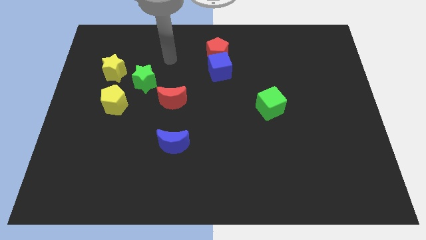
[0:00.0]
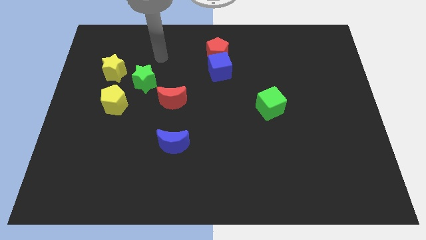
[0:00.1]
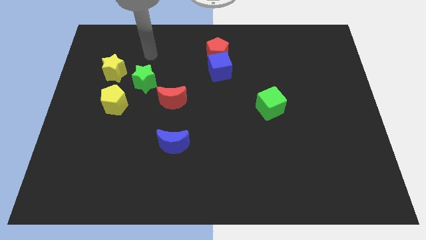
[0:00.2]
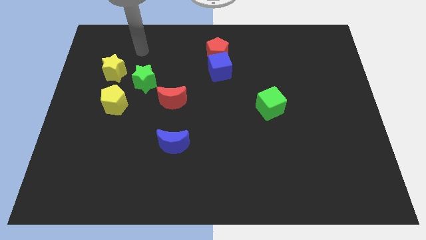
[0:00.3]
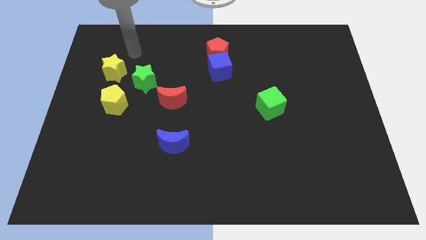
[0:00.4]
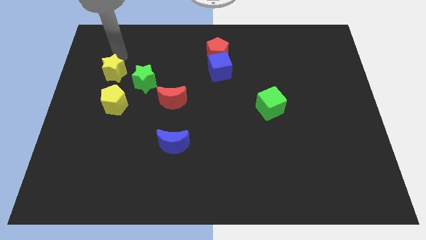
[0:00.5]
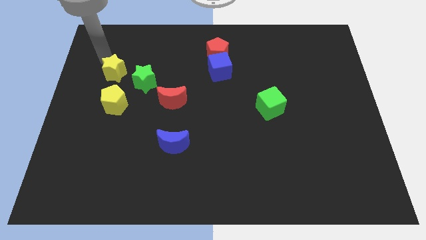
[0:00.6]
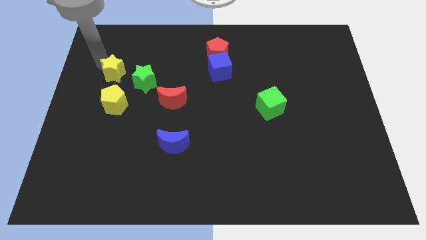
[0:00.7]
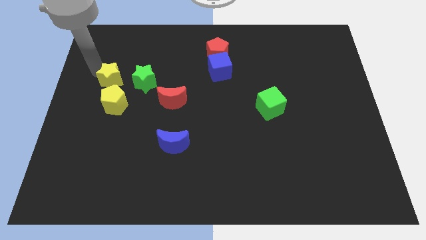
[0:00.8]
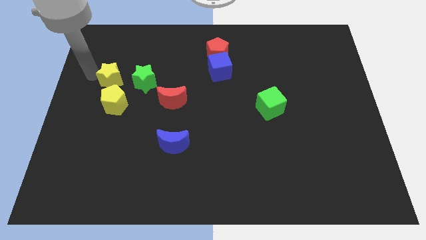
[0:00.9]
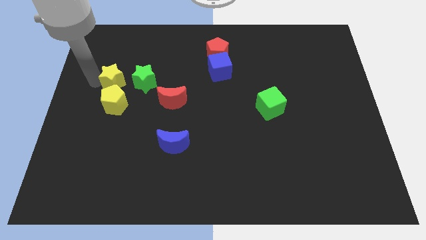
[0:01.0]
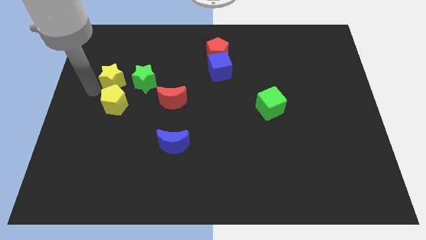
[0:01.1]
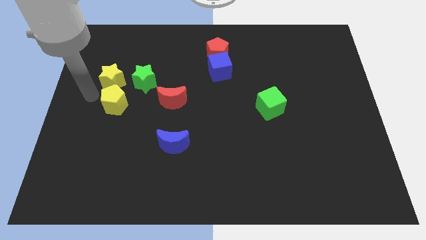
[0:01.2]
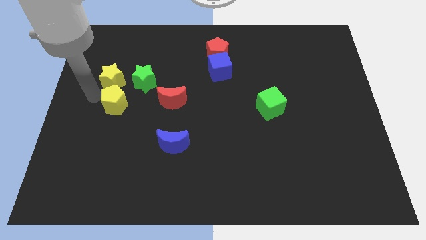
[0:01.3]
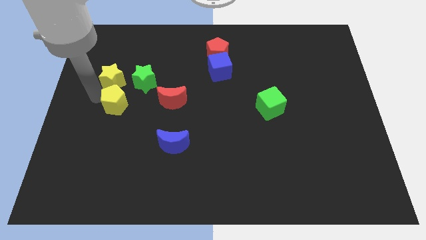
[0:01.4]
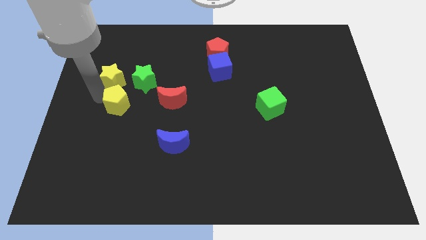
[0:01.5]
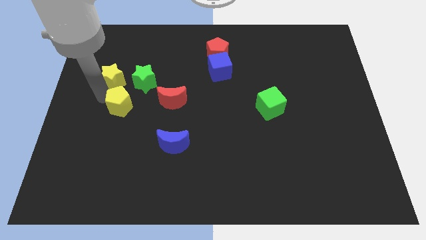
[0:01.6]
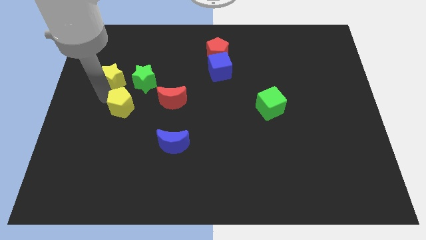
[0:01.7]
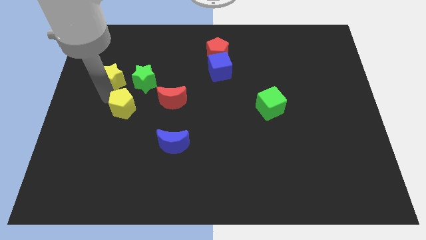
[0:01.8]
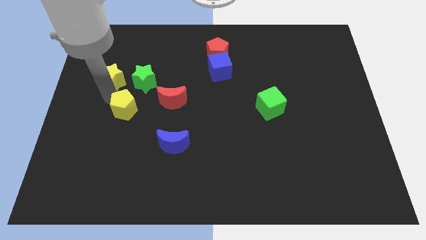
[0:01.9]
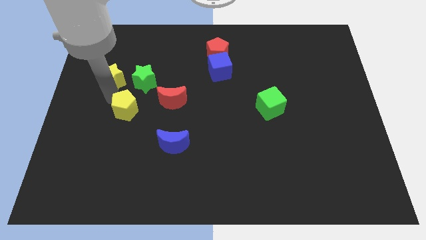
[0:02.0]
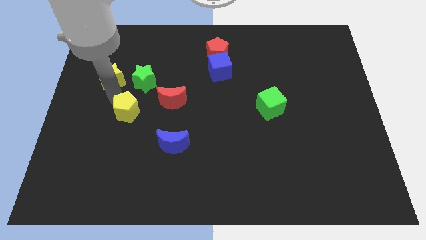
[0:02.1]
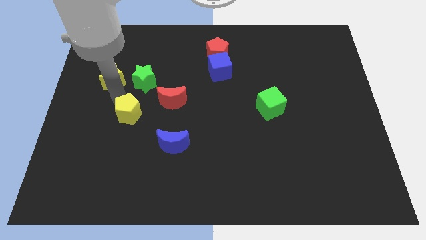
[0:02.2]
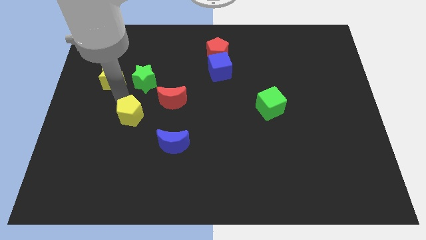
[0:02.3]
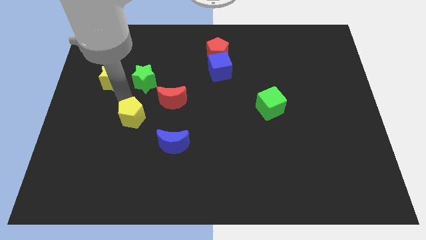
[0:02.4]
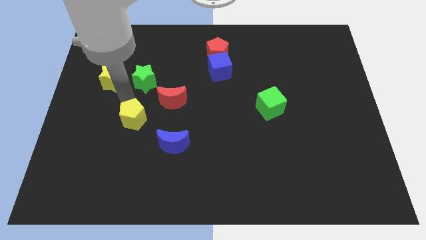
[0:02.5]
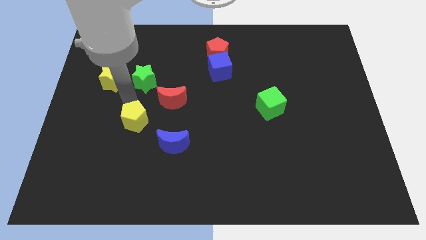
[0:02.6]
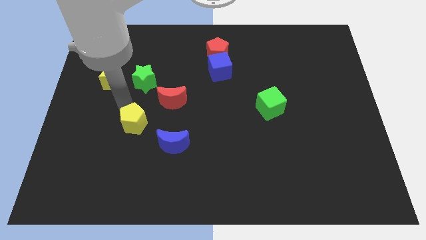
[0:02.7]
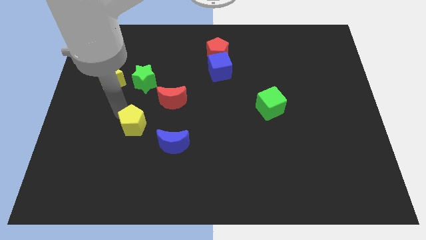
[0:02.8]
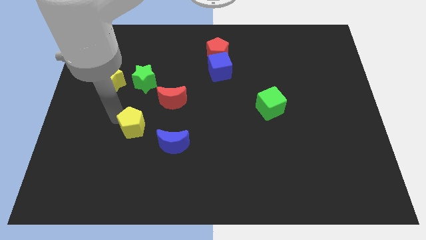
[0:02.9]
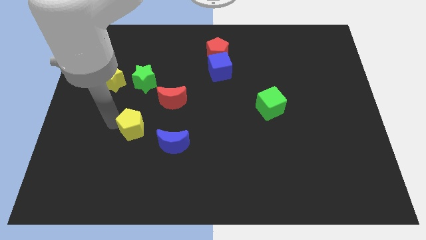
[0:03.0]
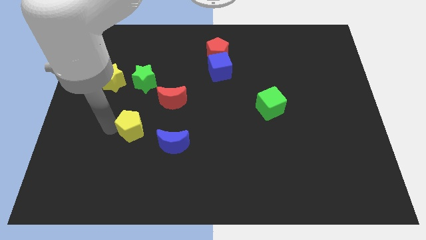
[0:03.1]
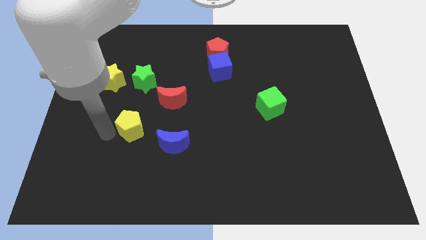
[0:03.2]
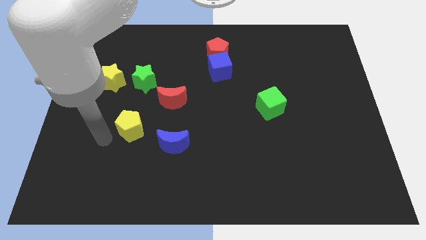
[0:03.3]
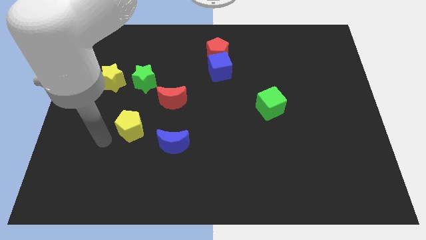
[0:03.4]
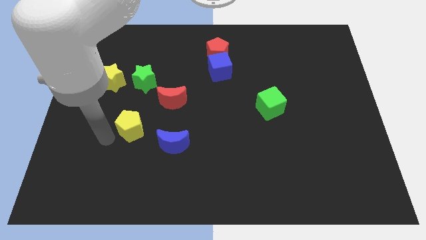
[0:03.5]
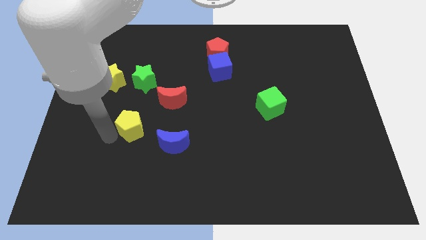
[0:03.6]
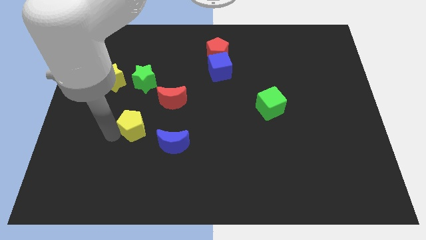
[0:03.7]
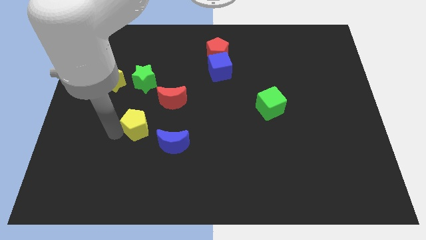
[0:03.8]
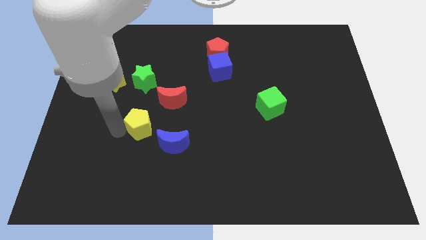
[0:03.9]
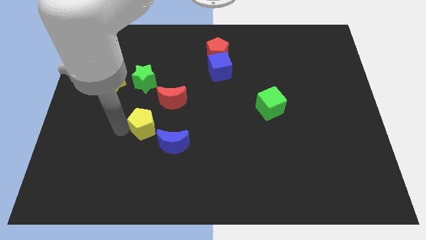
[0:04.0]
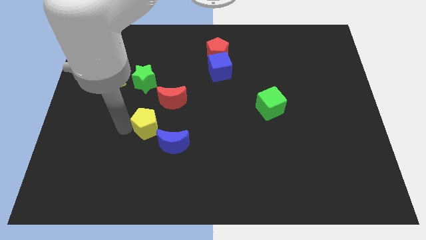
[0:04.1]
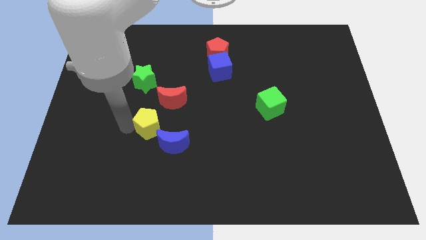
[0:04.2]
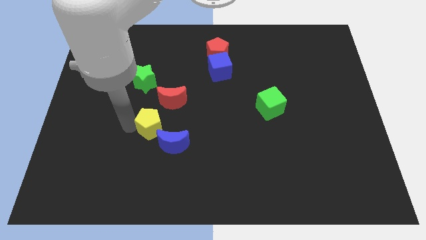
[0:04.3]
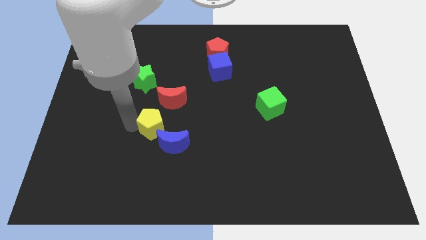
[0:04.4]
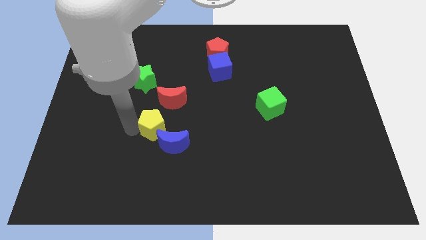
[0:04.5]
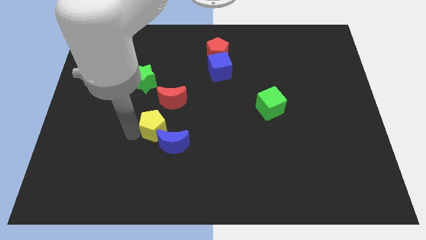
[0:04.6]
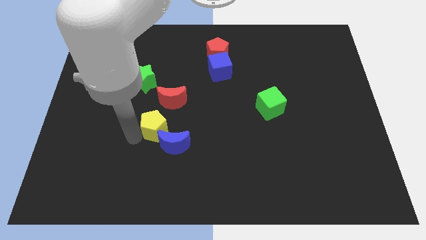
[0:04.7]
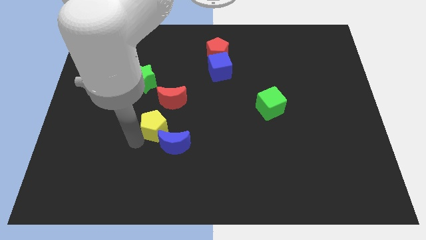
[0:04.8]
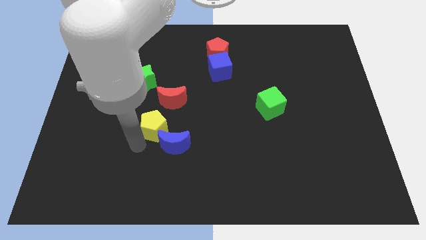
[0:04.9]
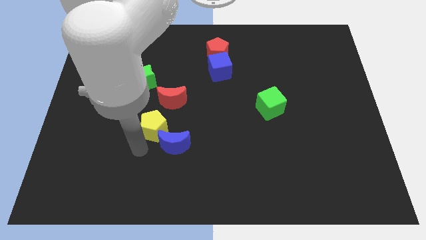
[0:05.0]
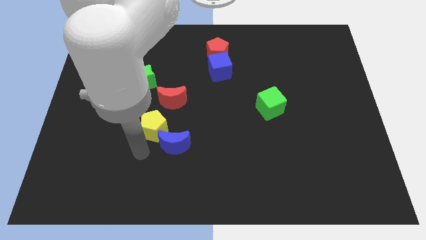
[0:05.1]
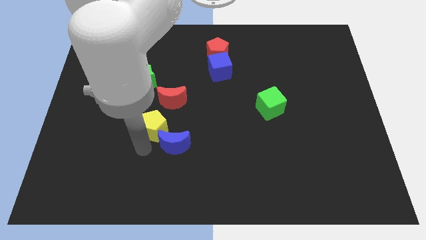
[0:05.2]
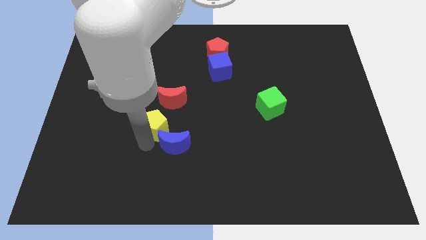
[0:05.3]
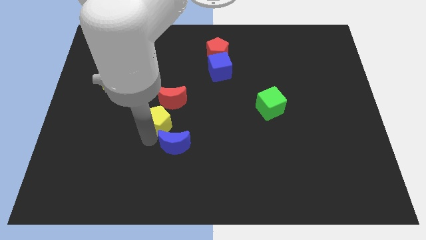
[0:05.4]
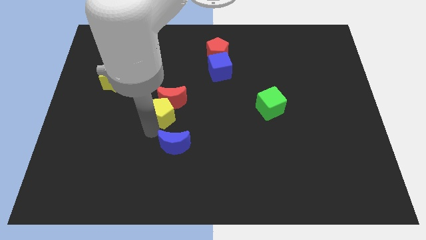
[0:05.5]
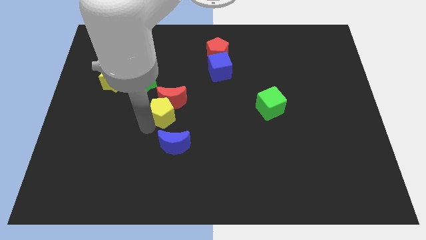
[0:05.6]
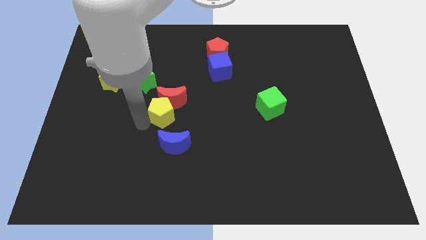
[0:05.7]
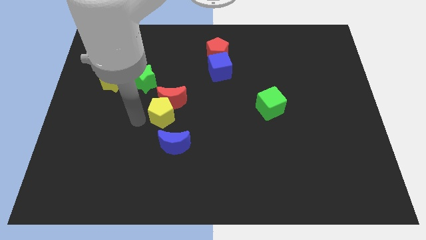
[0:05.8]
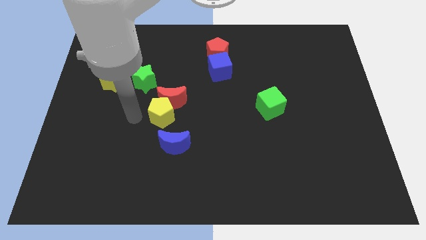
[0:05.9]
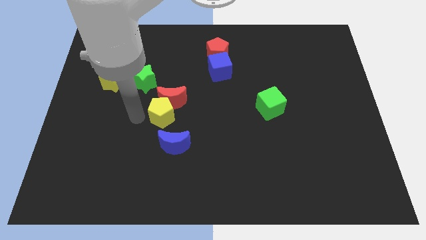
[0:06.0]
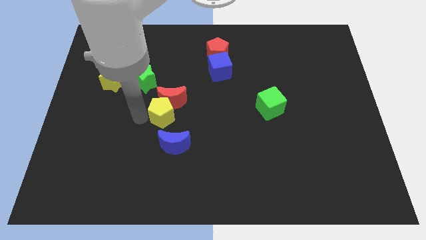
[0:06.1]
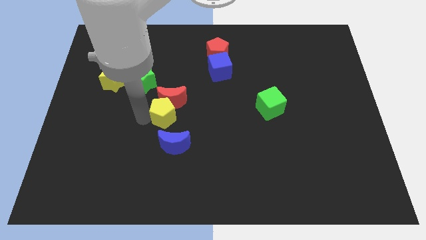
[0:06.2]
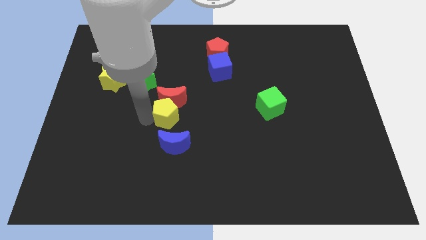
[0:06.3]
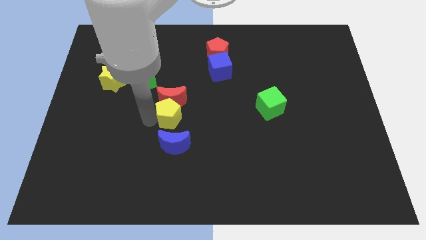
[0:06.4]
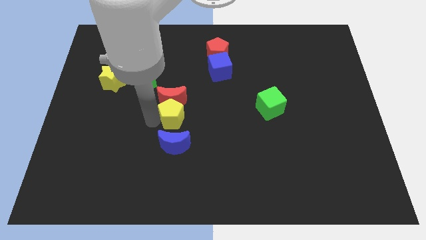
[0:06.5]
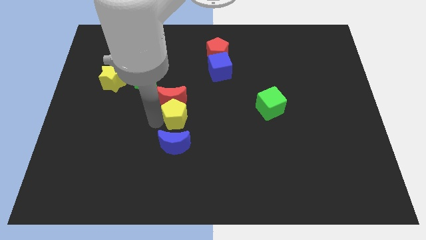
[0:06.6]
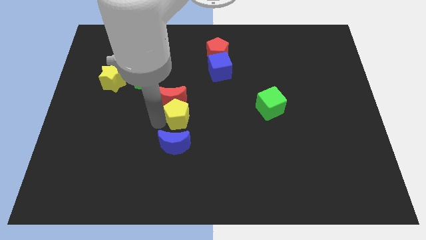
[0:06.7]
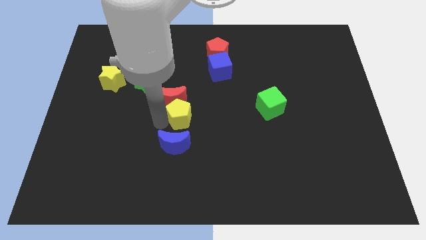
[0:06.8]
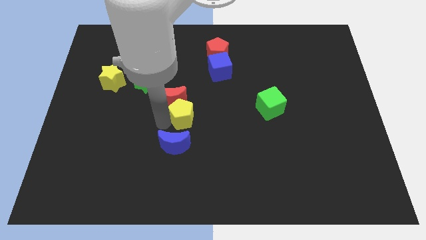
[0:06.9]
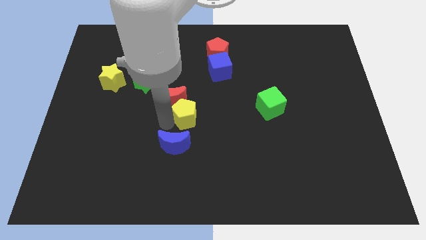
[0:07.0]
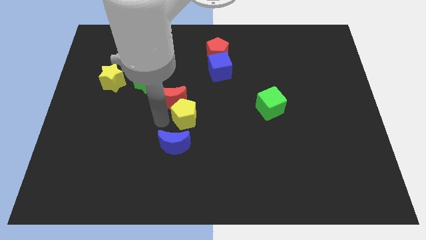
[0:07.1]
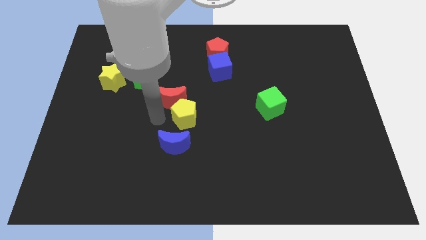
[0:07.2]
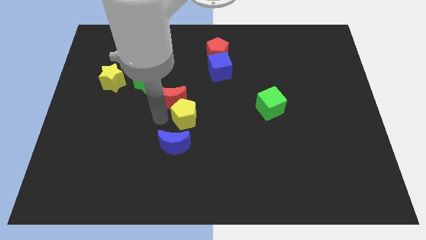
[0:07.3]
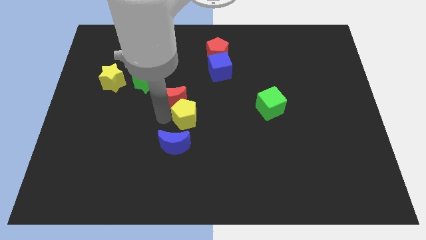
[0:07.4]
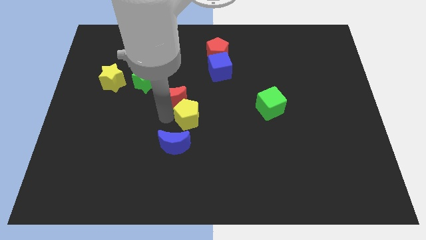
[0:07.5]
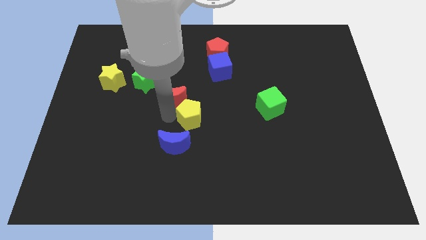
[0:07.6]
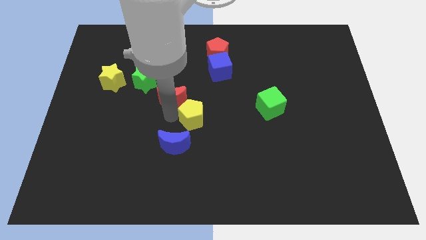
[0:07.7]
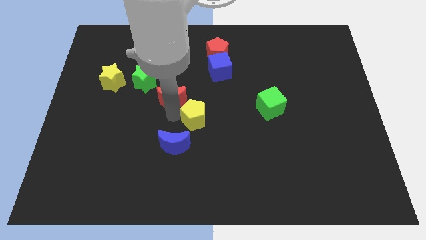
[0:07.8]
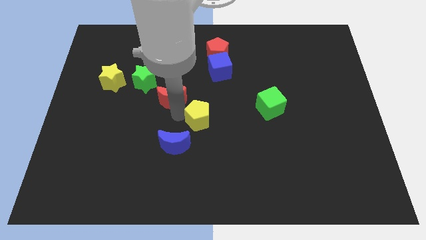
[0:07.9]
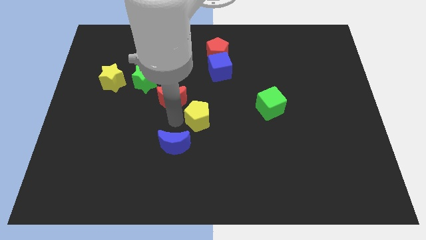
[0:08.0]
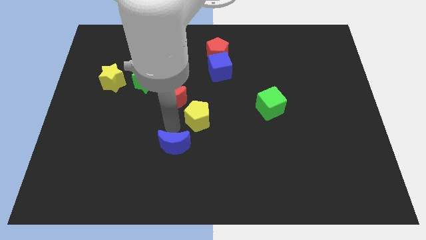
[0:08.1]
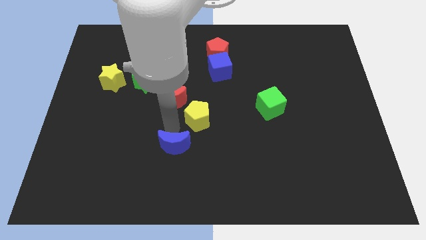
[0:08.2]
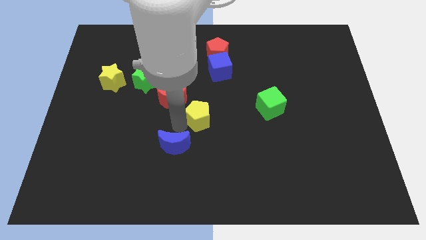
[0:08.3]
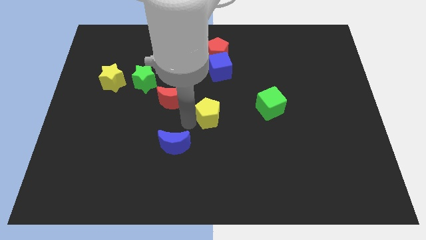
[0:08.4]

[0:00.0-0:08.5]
move the yellow pentagon to the right
